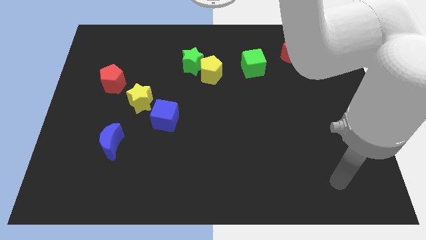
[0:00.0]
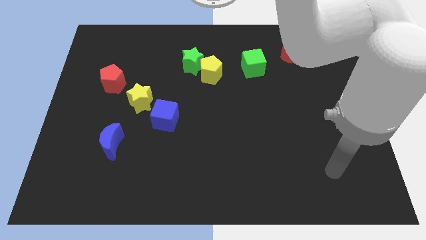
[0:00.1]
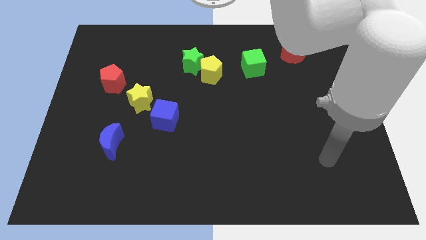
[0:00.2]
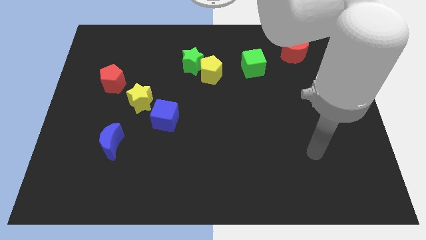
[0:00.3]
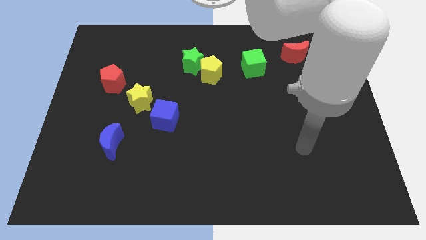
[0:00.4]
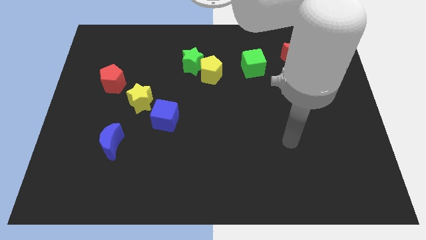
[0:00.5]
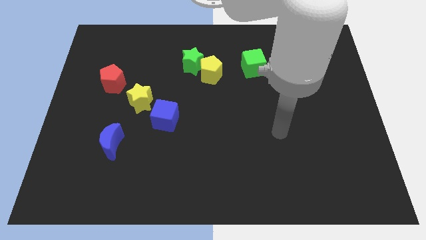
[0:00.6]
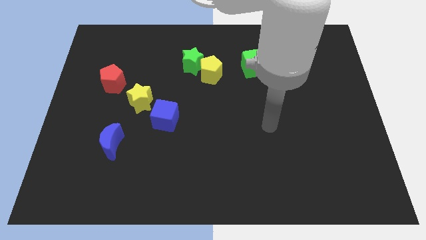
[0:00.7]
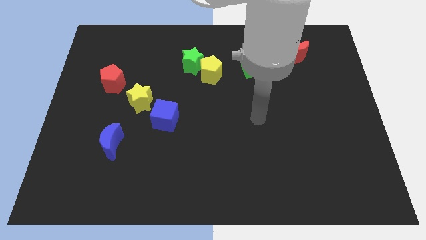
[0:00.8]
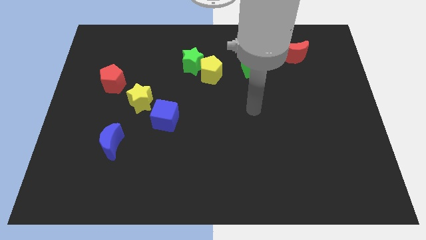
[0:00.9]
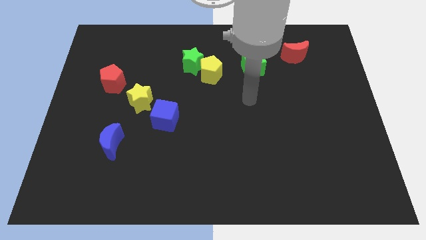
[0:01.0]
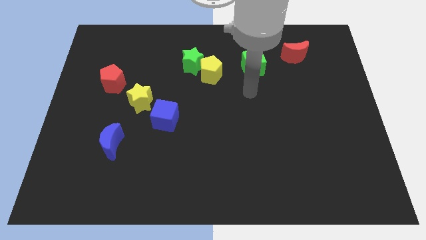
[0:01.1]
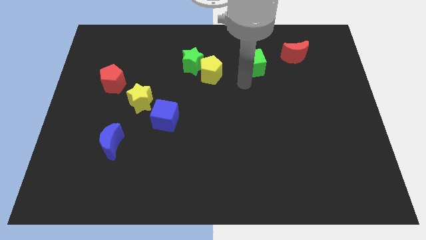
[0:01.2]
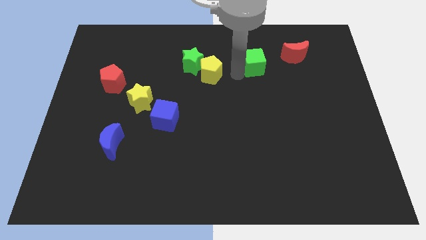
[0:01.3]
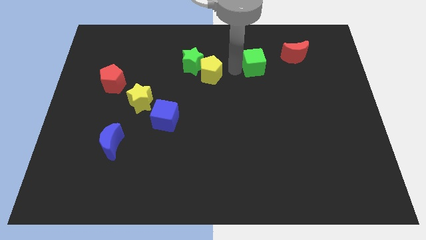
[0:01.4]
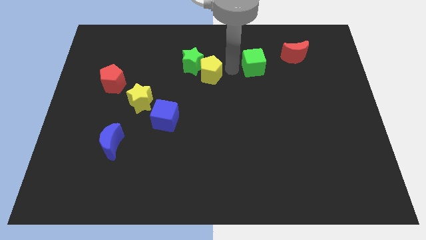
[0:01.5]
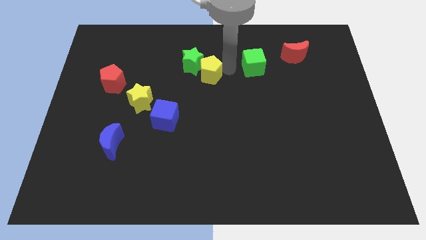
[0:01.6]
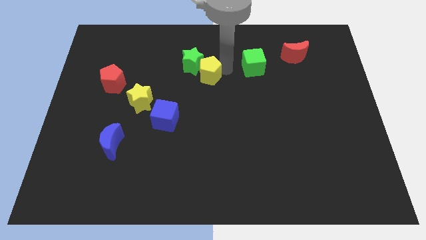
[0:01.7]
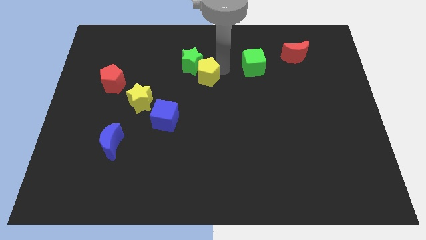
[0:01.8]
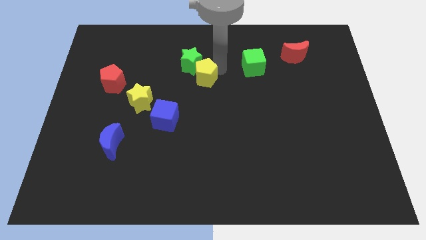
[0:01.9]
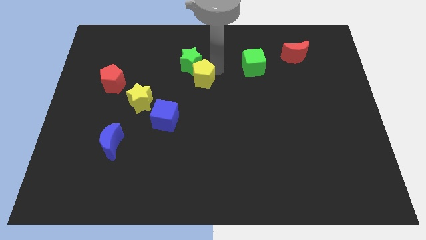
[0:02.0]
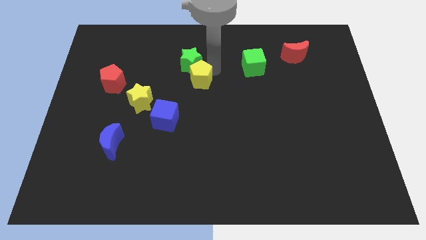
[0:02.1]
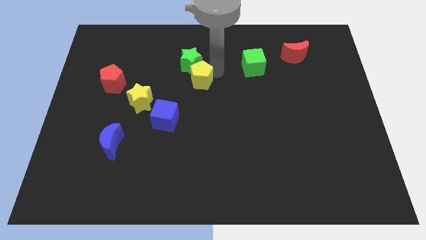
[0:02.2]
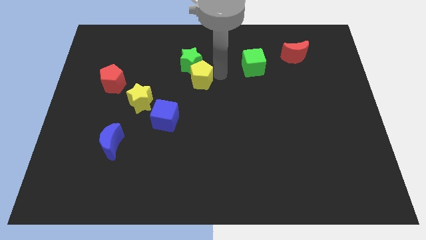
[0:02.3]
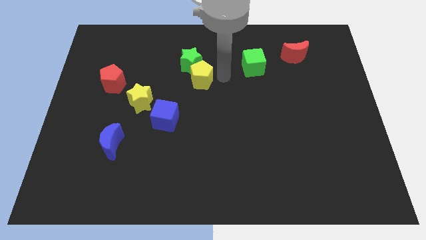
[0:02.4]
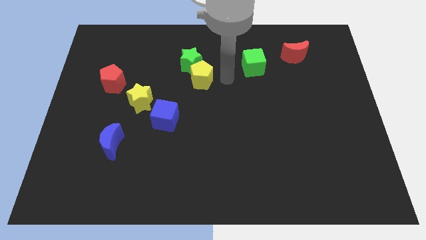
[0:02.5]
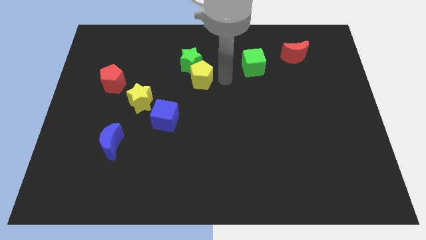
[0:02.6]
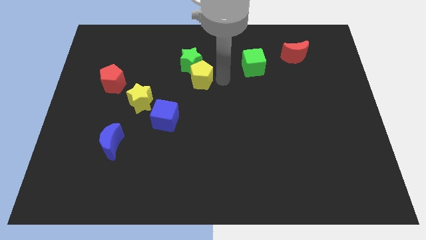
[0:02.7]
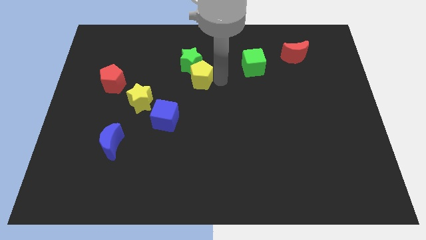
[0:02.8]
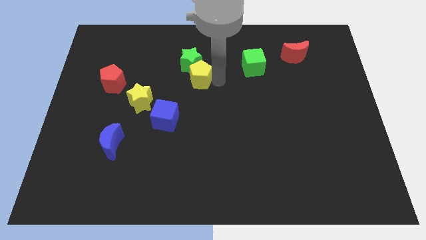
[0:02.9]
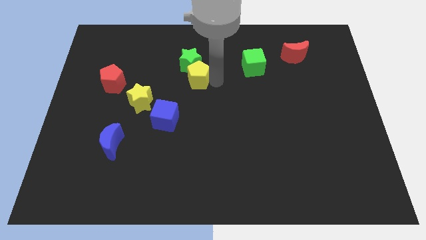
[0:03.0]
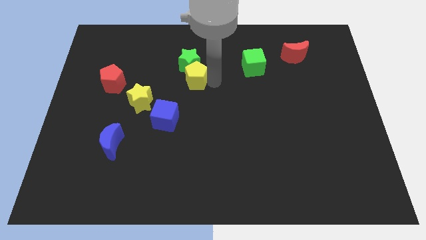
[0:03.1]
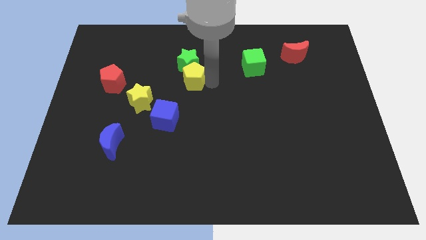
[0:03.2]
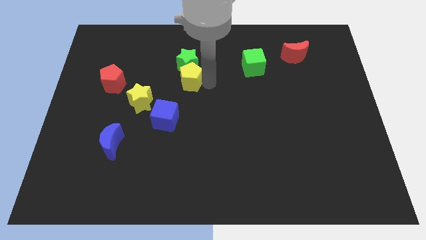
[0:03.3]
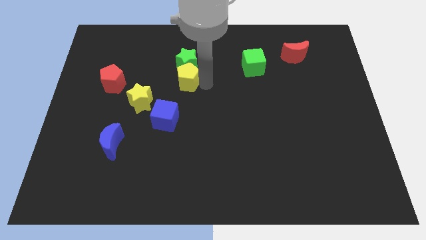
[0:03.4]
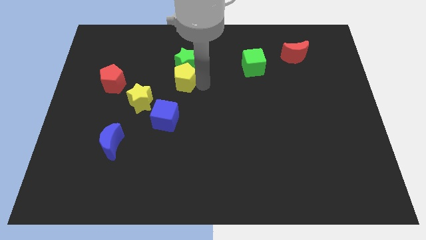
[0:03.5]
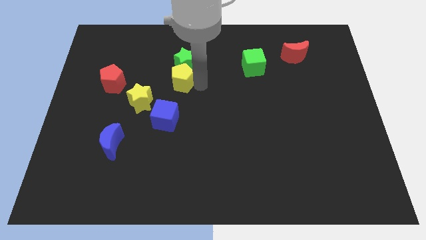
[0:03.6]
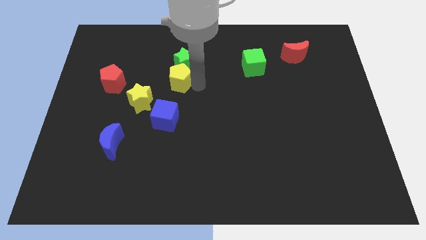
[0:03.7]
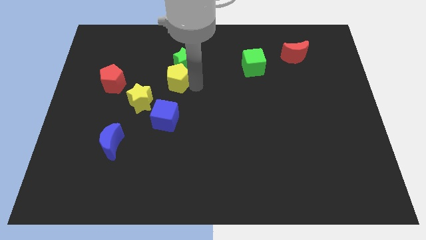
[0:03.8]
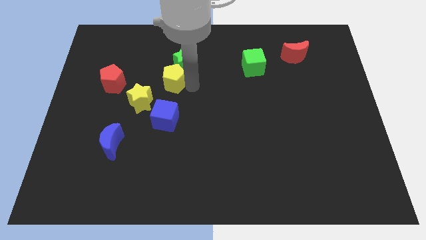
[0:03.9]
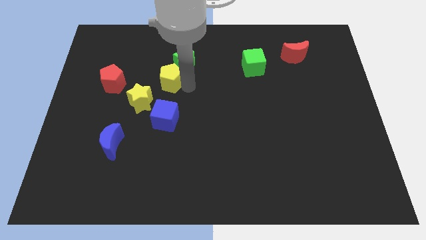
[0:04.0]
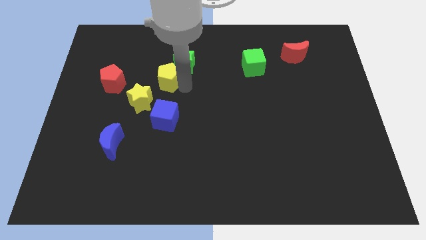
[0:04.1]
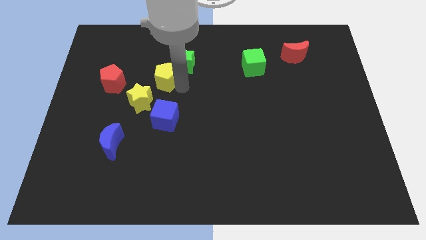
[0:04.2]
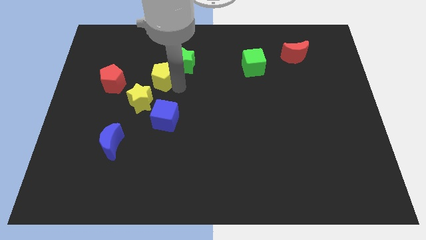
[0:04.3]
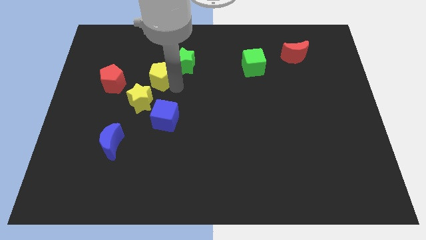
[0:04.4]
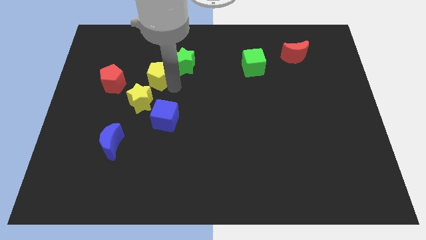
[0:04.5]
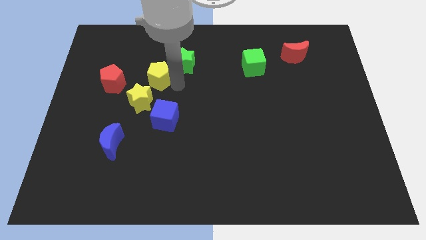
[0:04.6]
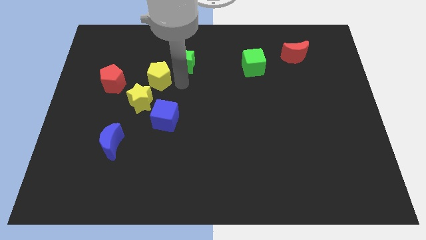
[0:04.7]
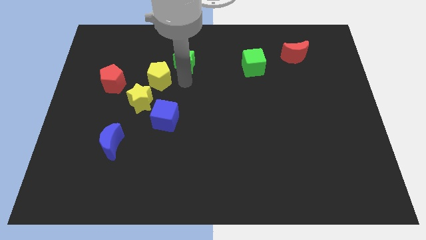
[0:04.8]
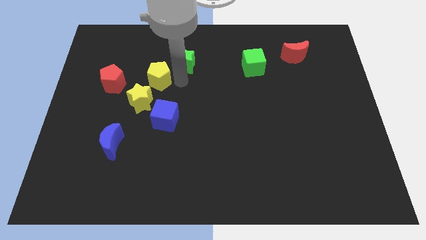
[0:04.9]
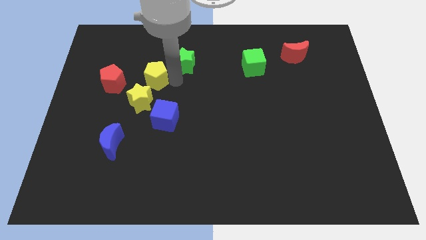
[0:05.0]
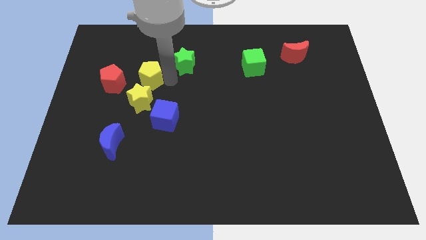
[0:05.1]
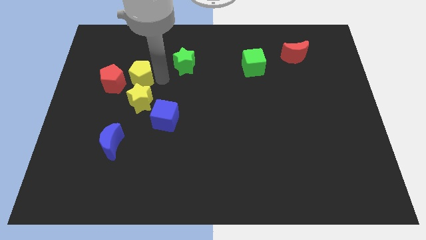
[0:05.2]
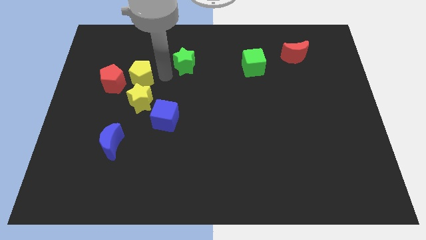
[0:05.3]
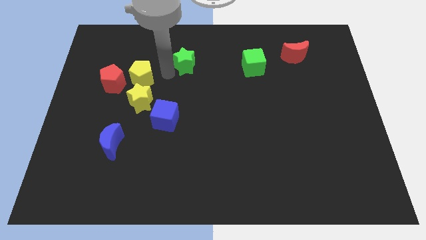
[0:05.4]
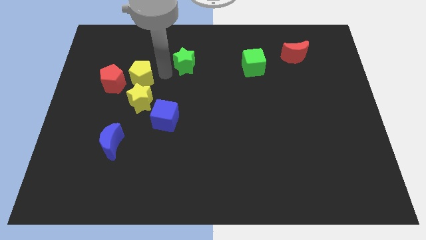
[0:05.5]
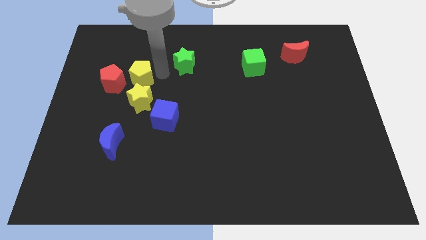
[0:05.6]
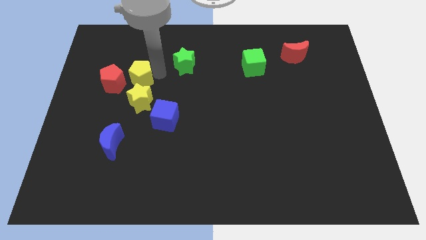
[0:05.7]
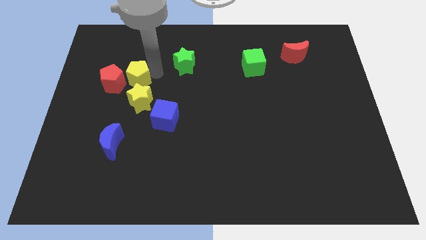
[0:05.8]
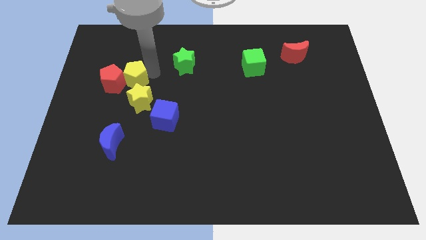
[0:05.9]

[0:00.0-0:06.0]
put the yellow pentagon to the red pentagon
